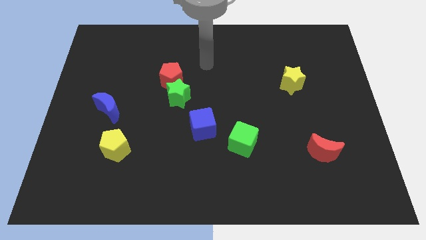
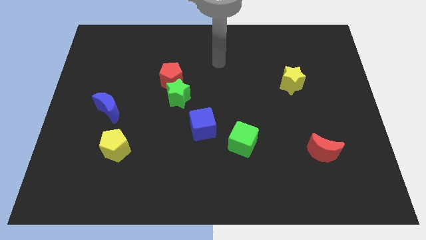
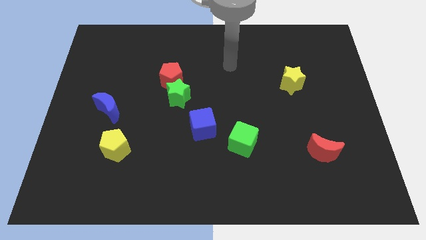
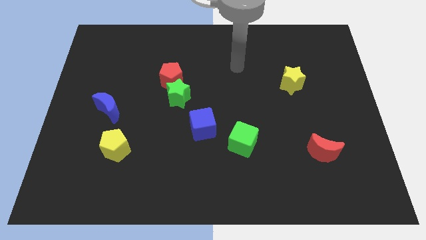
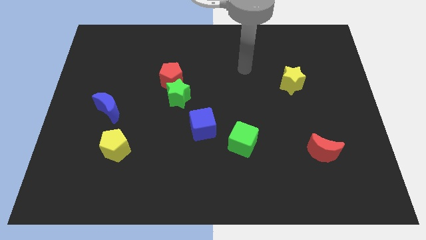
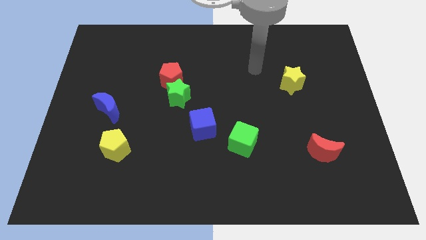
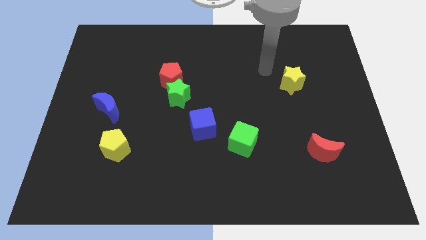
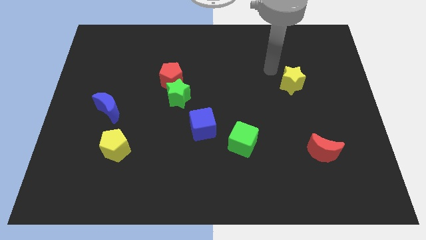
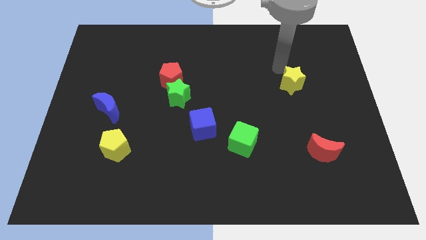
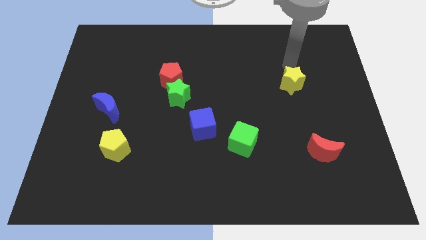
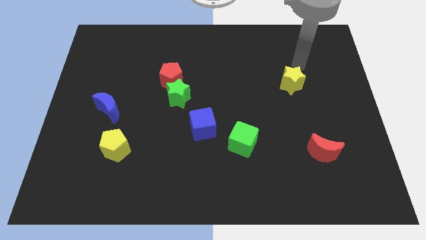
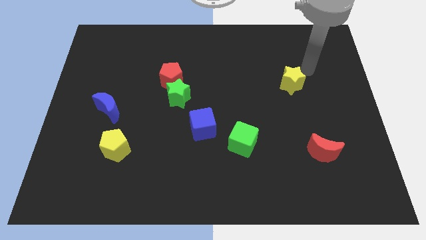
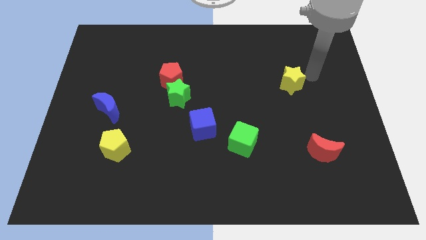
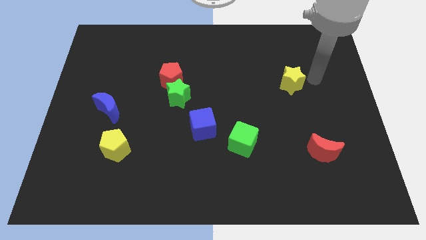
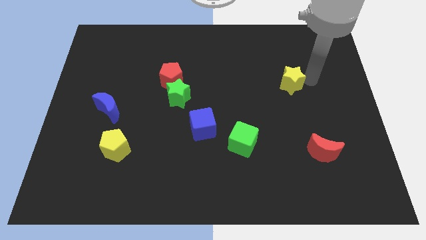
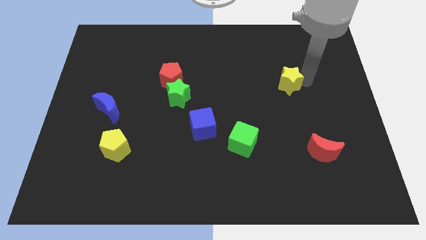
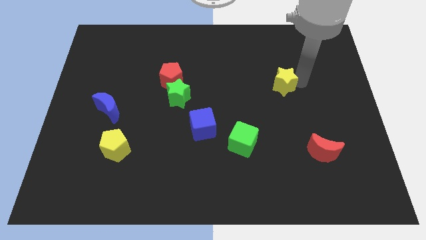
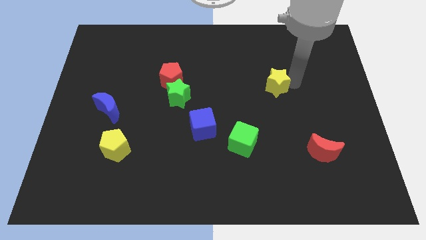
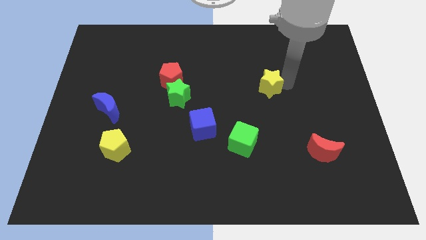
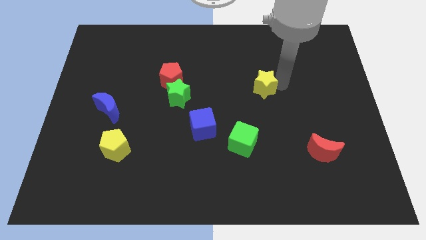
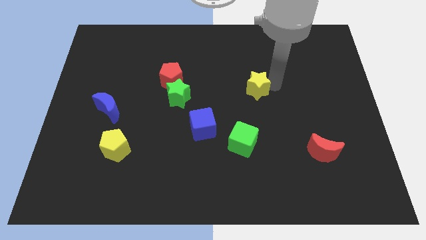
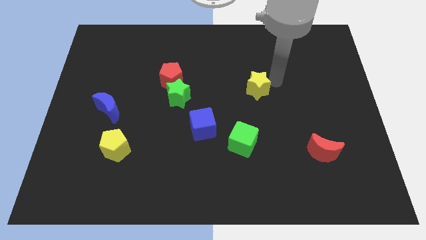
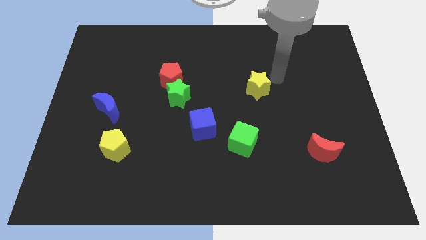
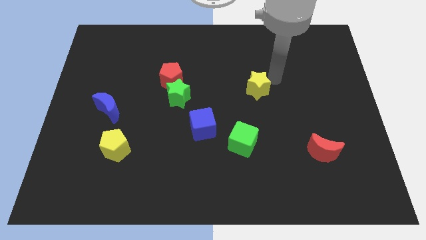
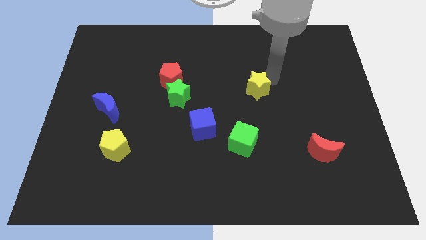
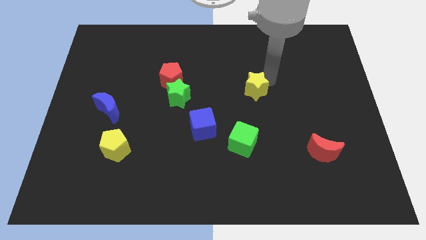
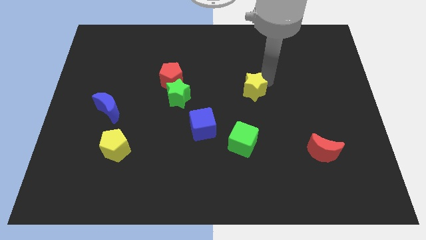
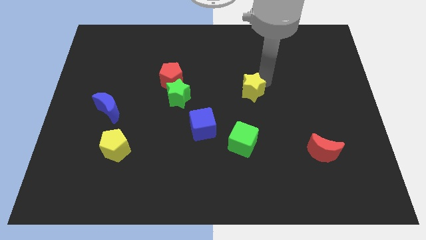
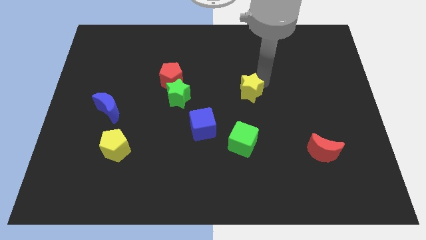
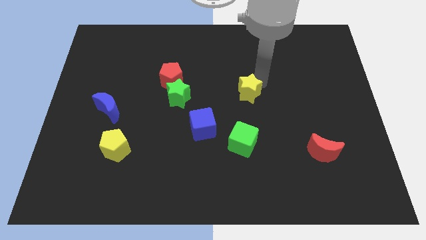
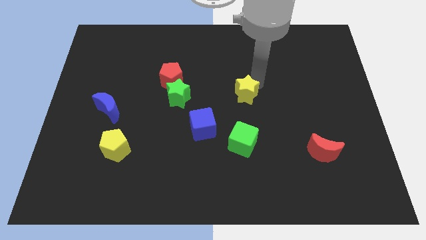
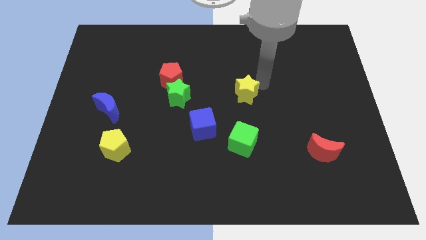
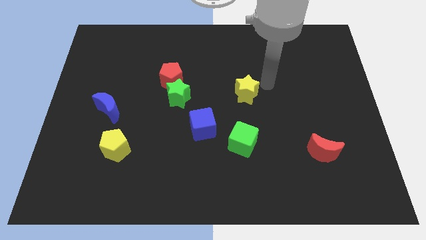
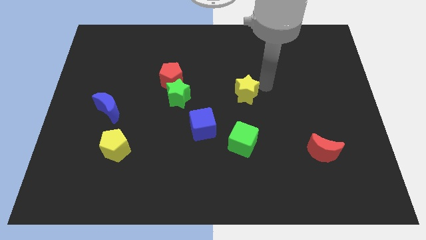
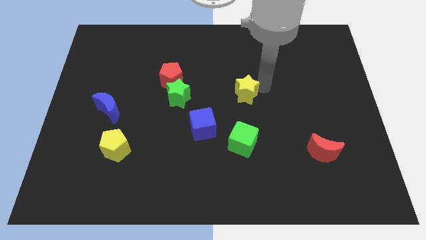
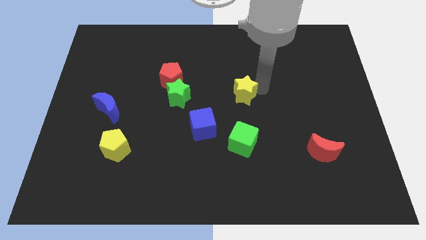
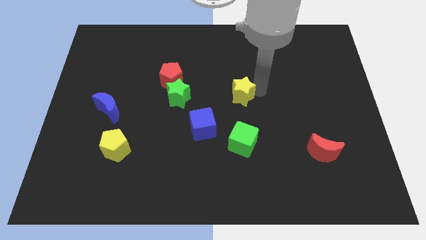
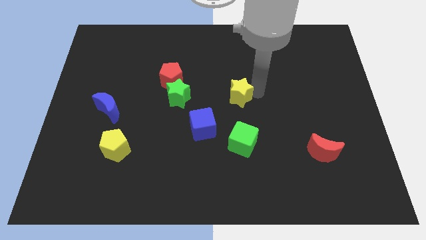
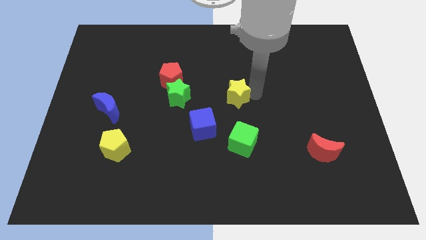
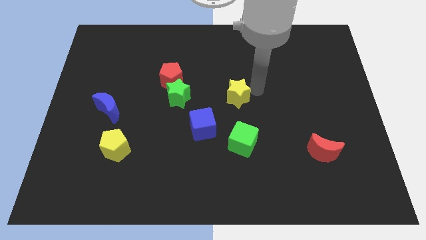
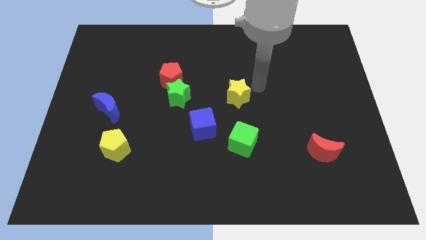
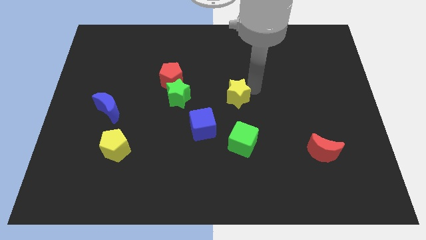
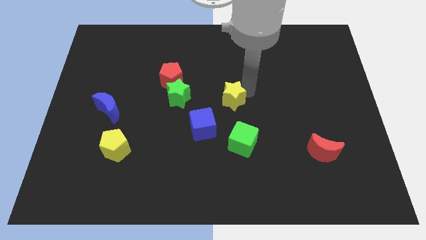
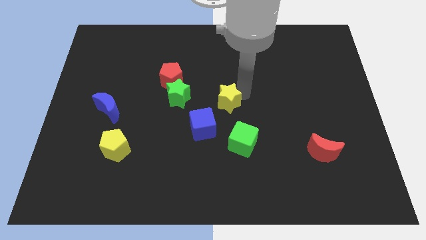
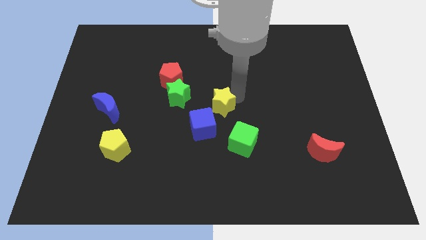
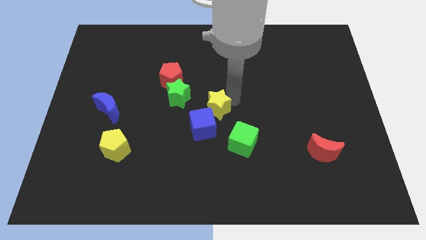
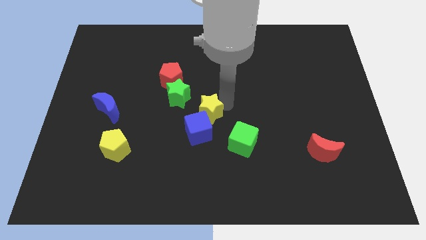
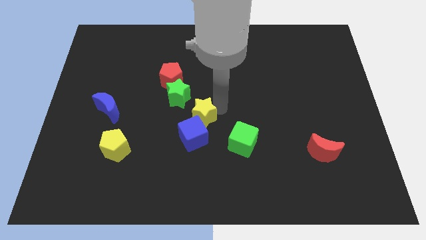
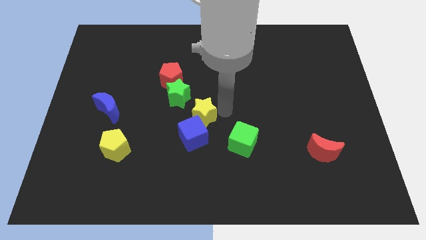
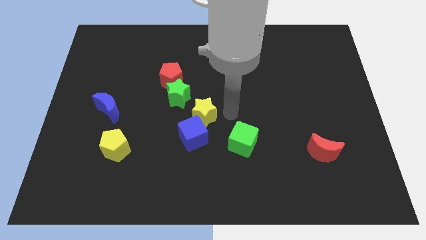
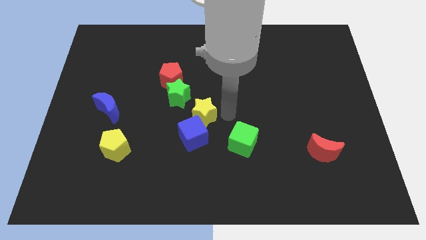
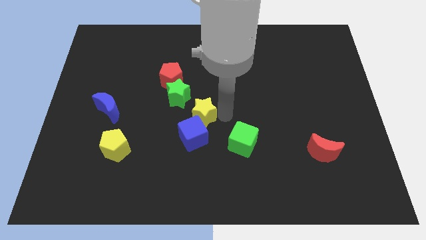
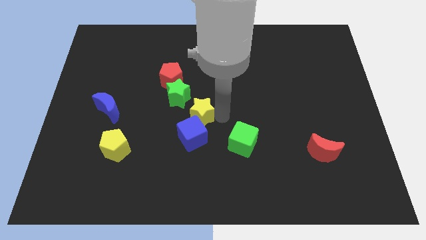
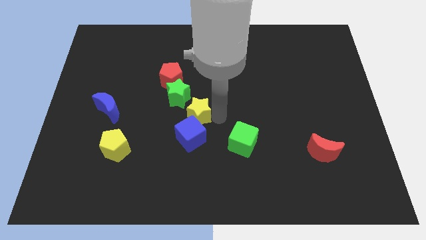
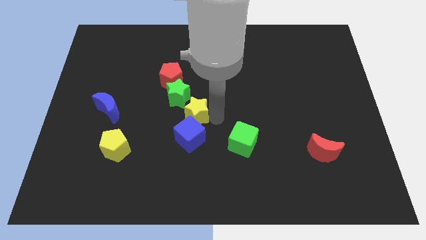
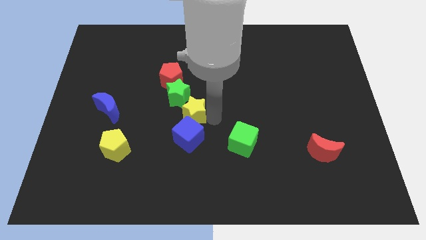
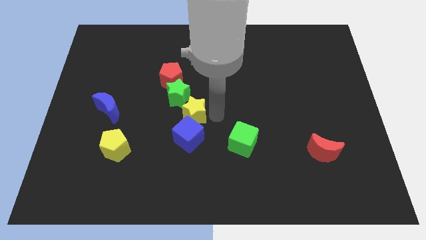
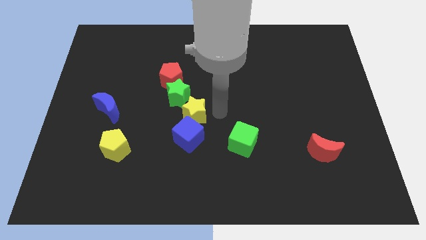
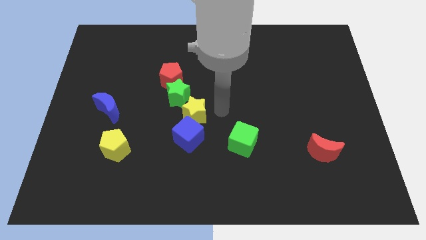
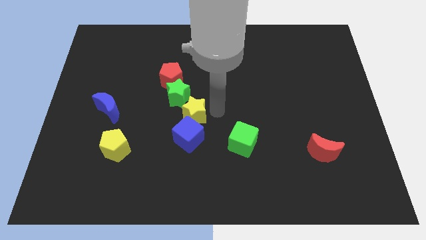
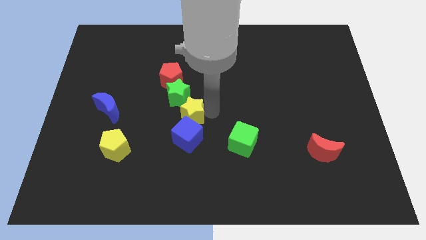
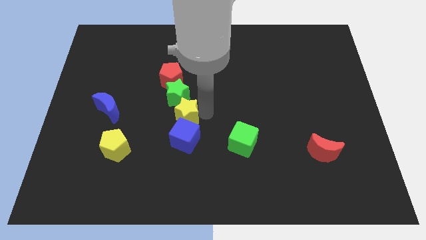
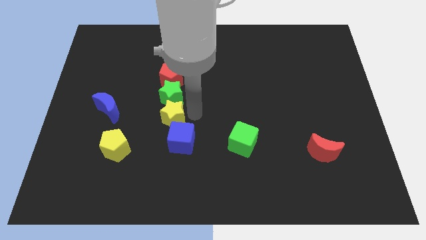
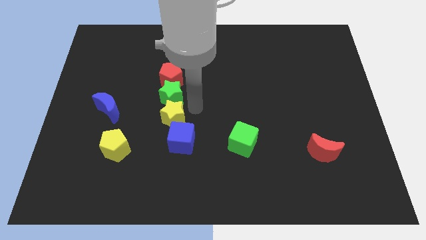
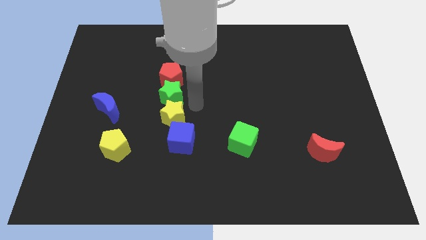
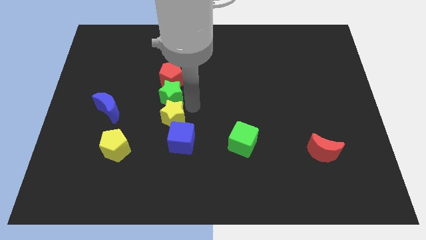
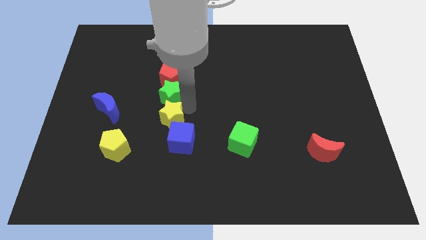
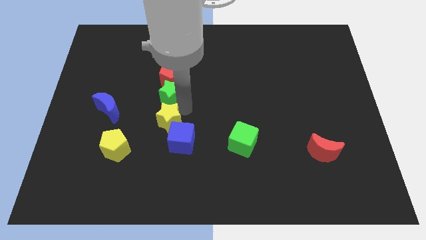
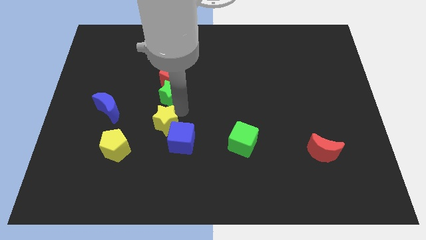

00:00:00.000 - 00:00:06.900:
push the yellow star to the left of the blue cube

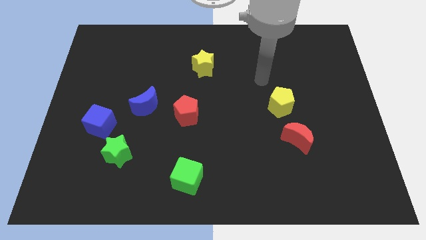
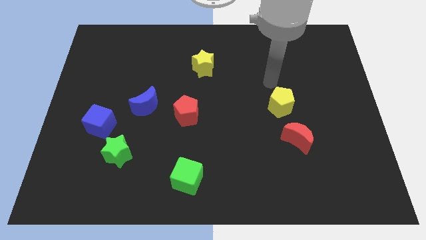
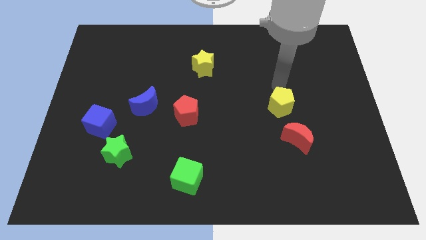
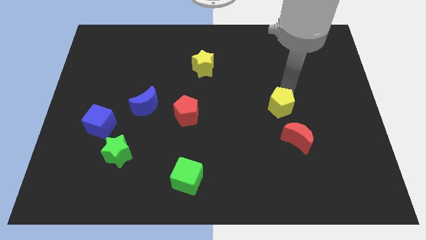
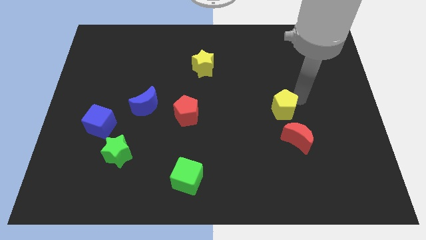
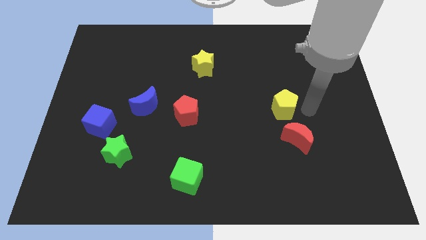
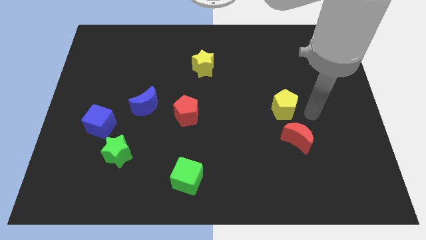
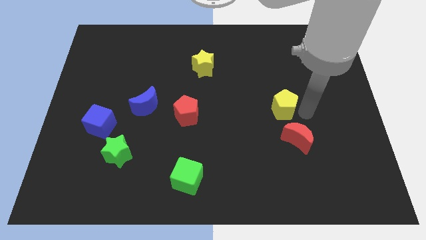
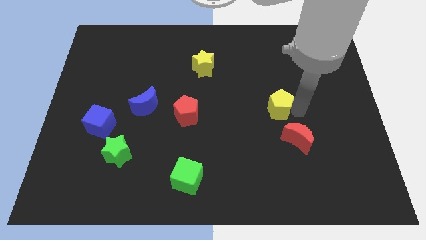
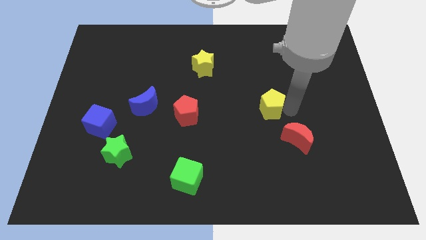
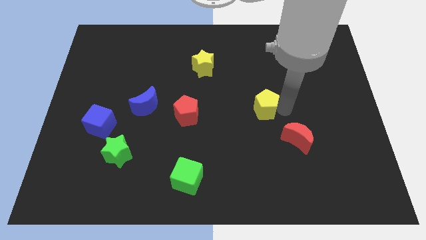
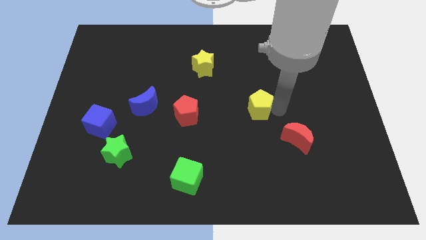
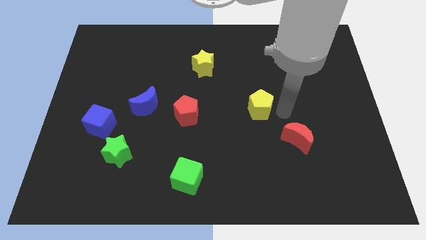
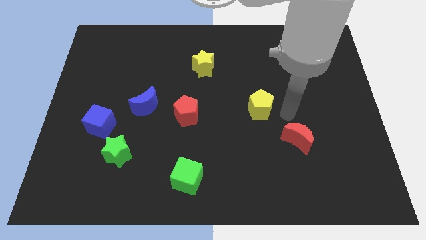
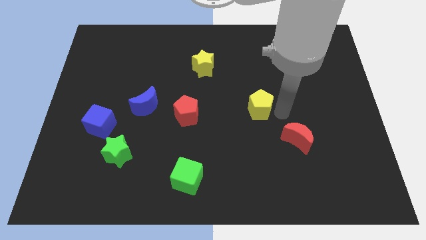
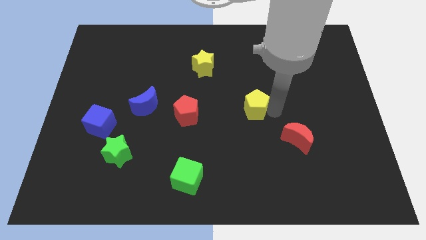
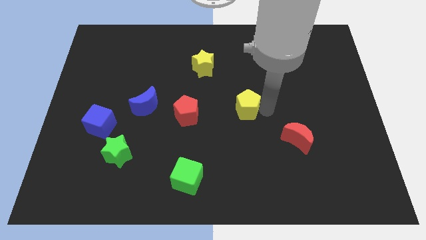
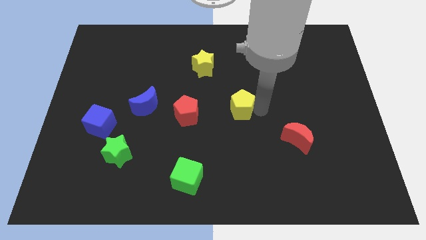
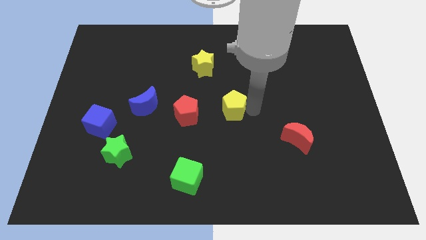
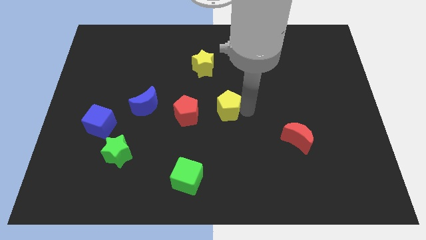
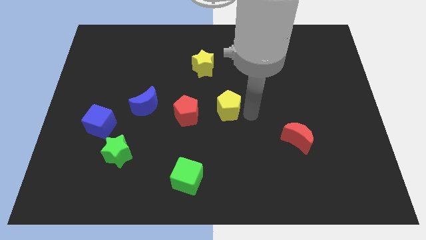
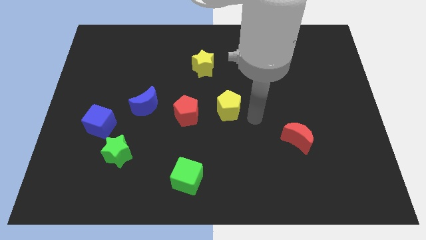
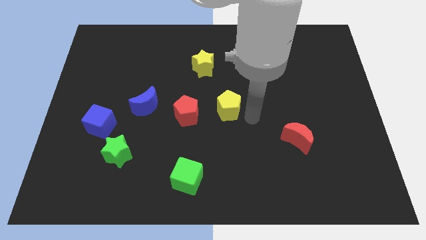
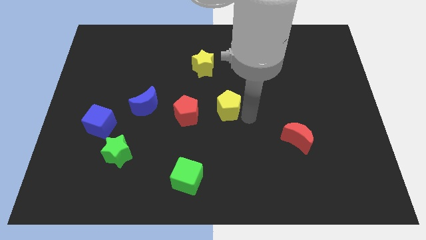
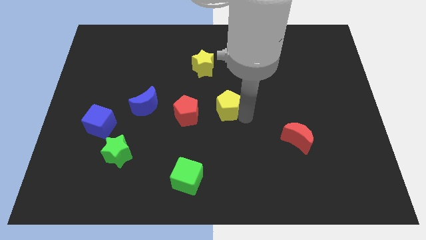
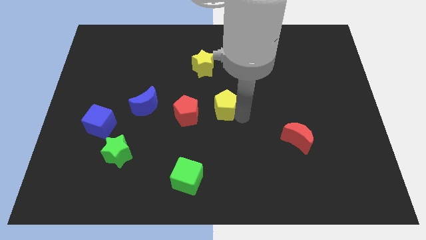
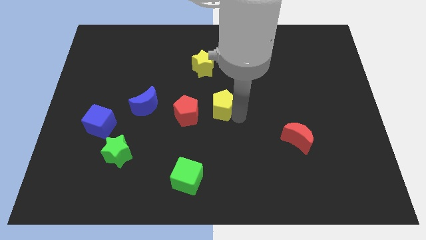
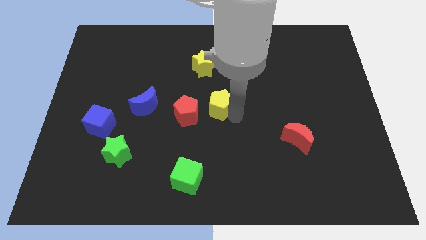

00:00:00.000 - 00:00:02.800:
move the yellow pentagon to the bottom side of the yellow star
